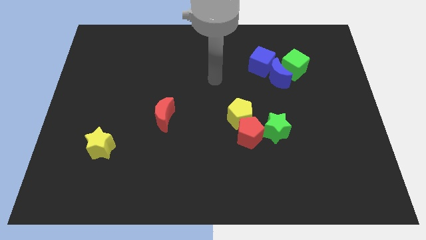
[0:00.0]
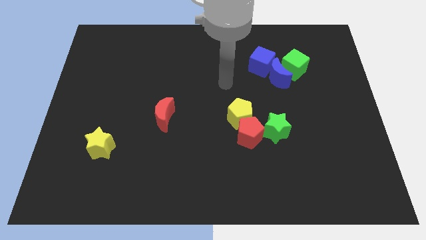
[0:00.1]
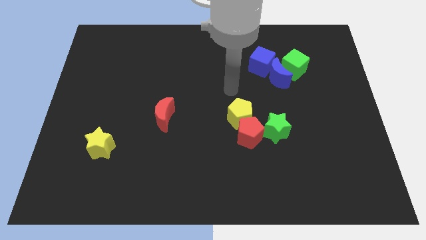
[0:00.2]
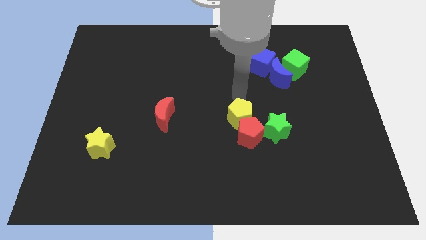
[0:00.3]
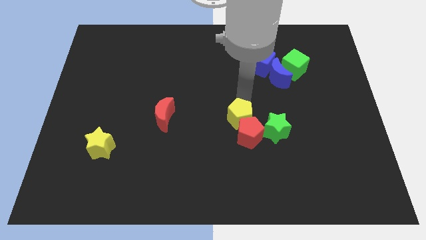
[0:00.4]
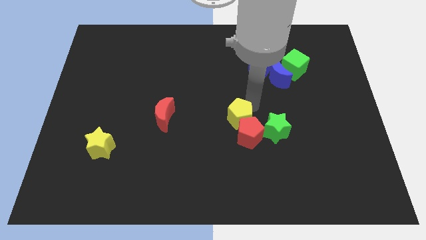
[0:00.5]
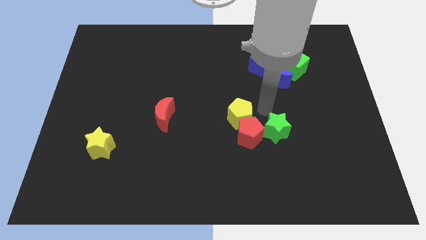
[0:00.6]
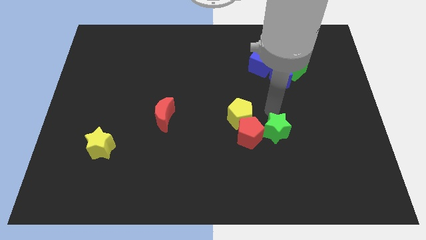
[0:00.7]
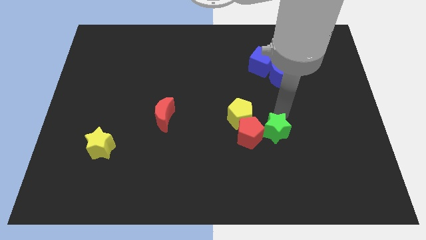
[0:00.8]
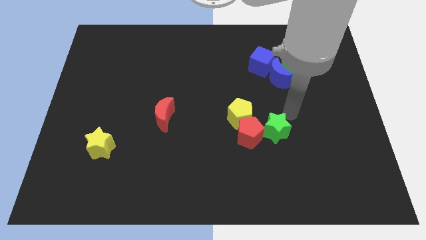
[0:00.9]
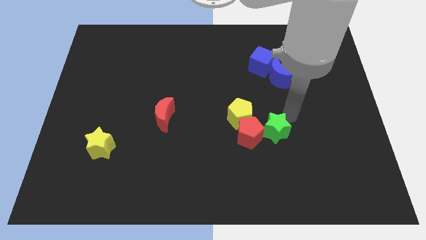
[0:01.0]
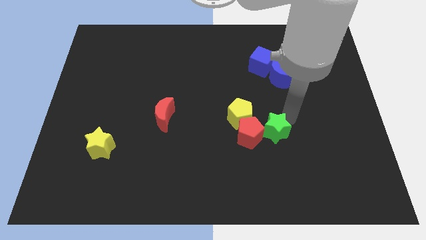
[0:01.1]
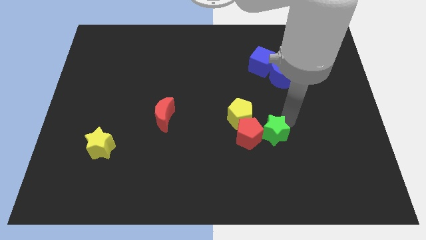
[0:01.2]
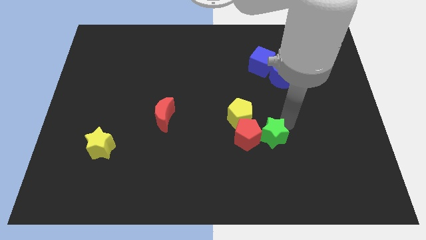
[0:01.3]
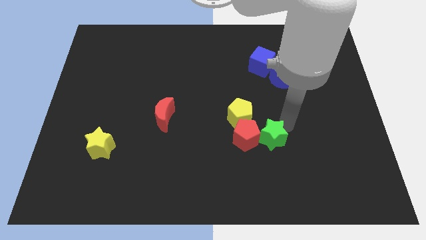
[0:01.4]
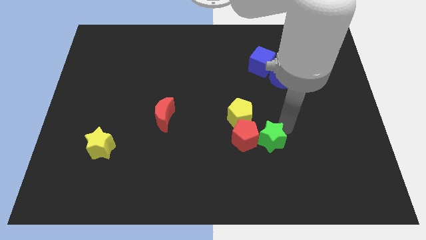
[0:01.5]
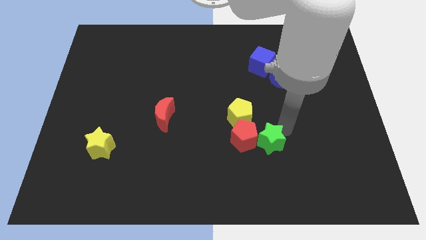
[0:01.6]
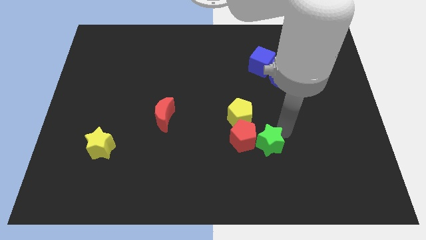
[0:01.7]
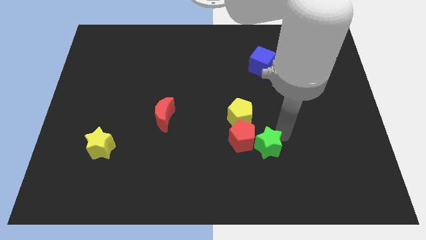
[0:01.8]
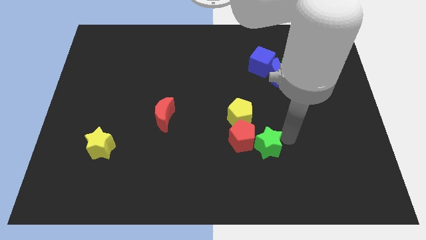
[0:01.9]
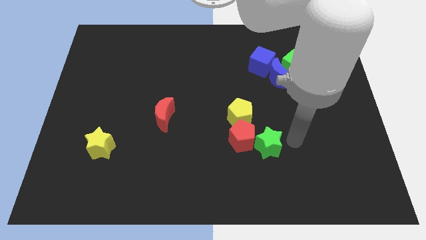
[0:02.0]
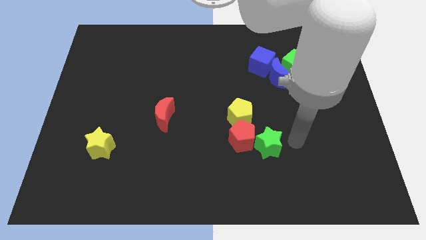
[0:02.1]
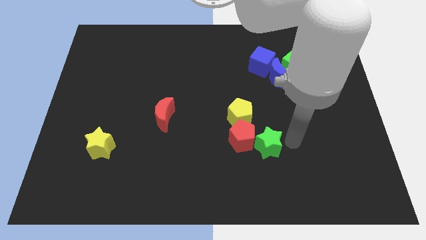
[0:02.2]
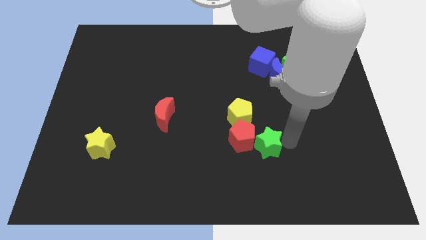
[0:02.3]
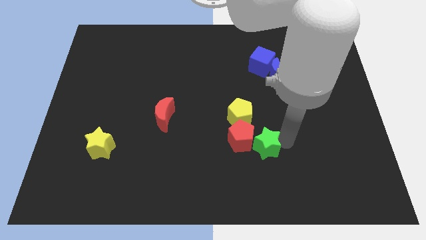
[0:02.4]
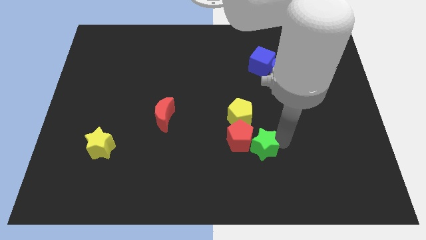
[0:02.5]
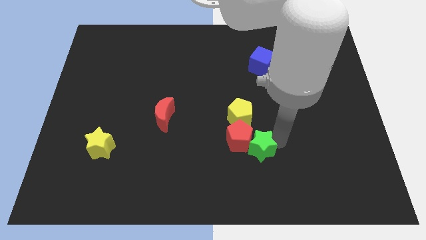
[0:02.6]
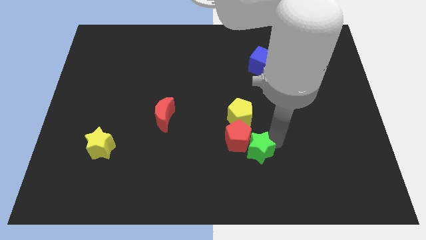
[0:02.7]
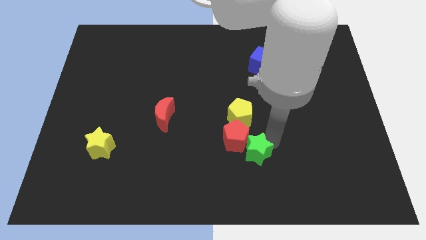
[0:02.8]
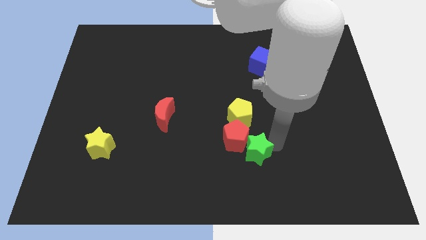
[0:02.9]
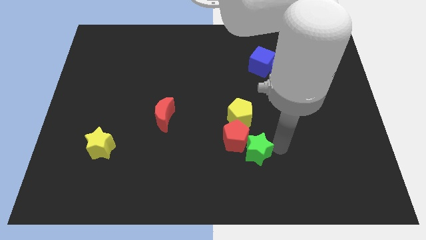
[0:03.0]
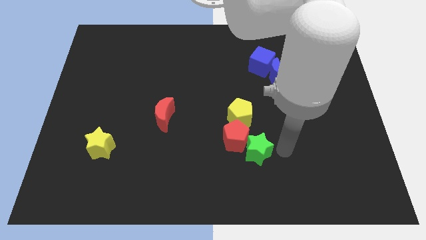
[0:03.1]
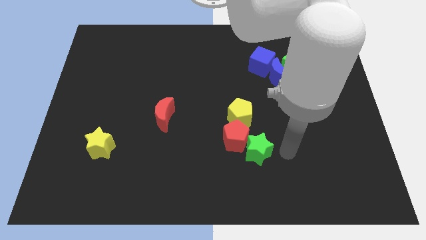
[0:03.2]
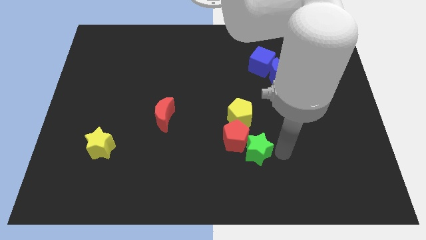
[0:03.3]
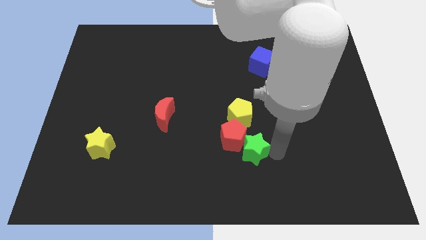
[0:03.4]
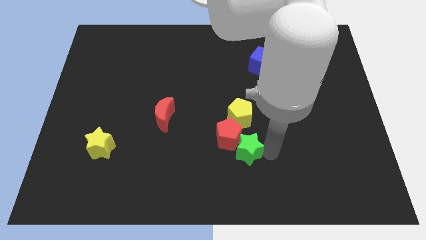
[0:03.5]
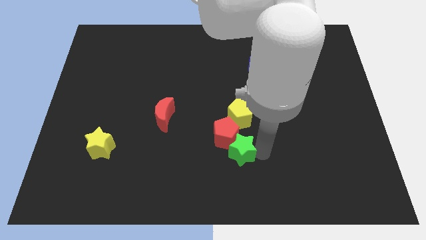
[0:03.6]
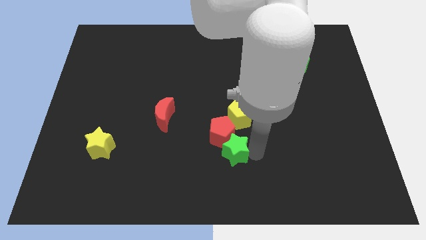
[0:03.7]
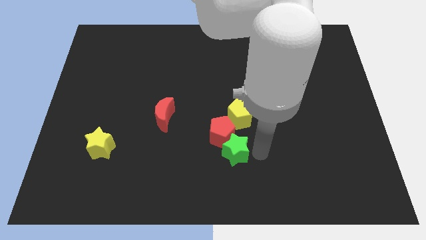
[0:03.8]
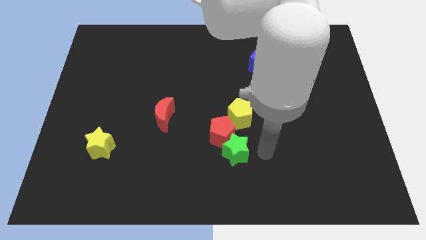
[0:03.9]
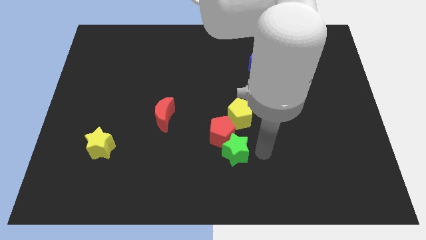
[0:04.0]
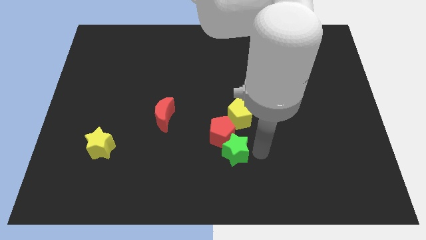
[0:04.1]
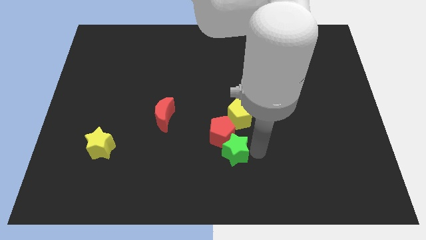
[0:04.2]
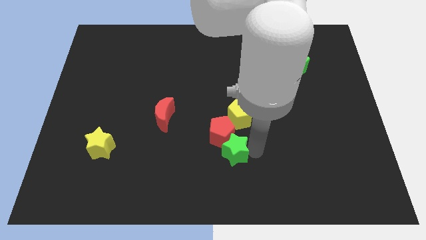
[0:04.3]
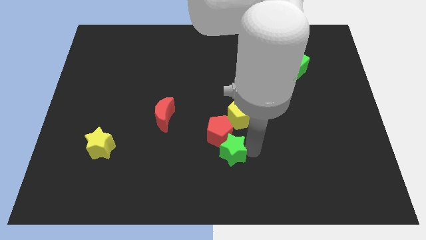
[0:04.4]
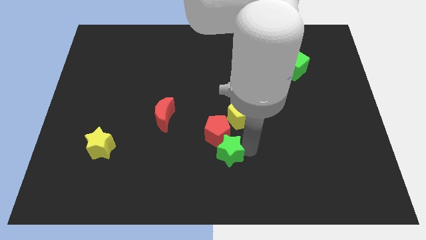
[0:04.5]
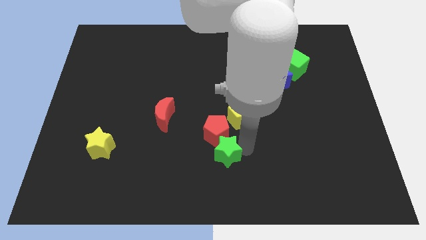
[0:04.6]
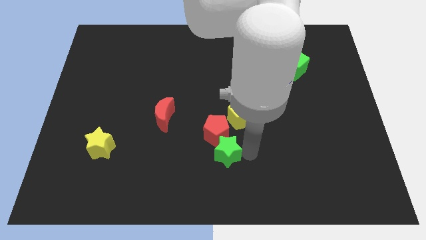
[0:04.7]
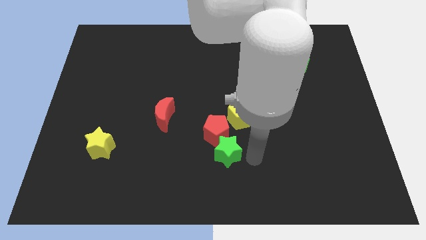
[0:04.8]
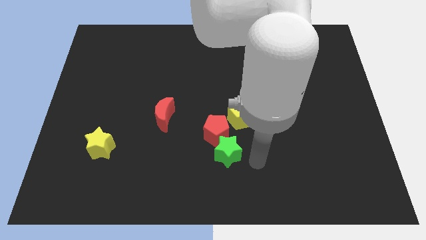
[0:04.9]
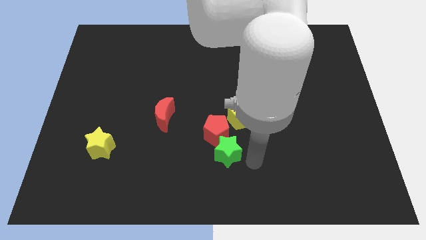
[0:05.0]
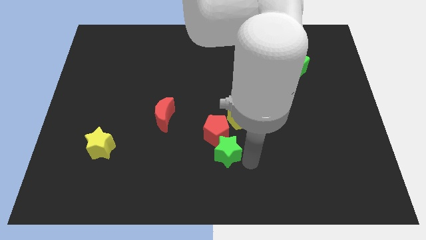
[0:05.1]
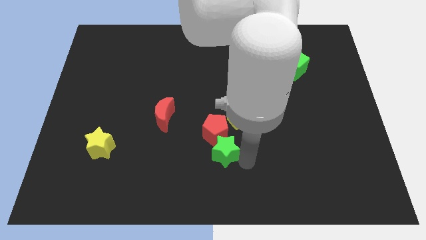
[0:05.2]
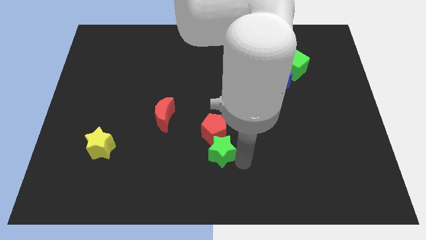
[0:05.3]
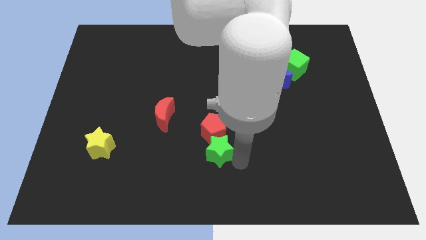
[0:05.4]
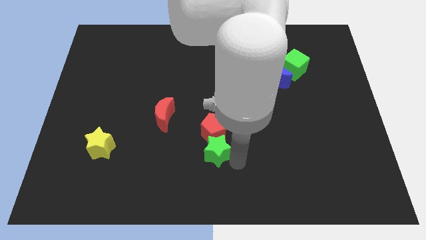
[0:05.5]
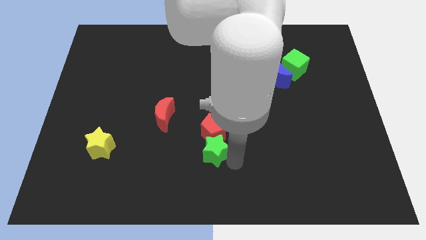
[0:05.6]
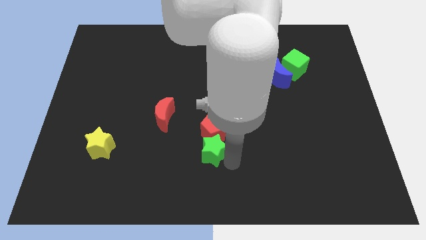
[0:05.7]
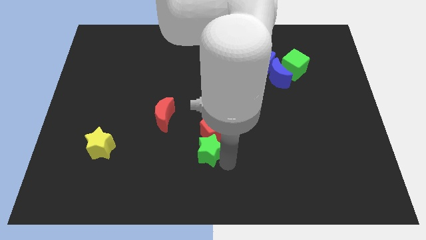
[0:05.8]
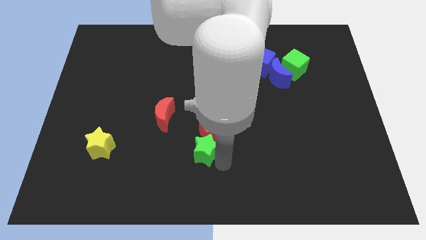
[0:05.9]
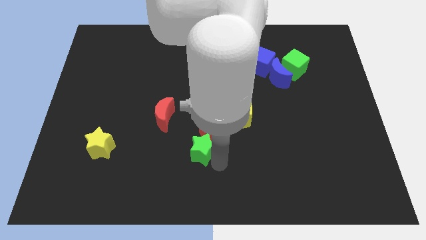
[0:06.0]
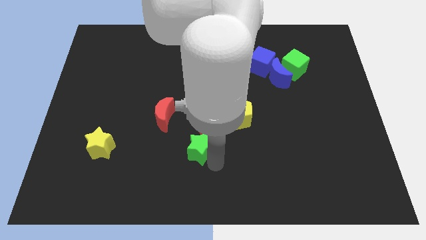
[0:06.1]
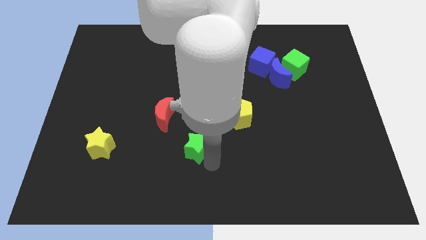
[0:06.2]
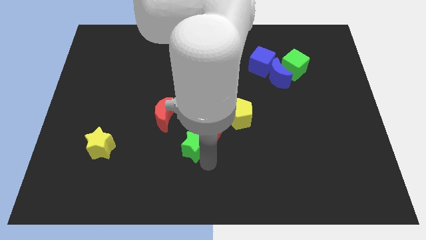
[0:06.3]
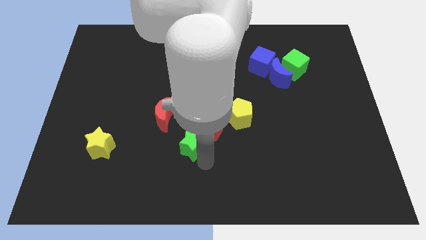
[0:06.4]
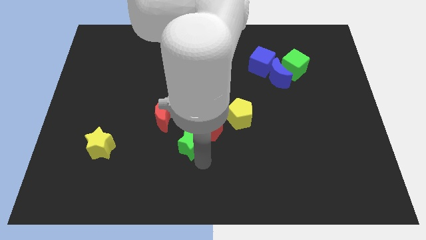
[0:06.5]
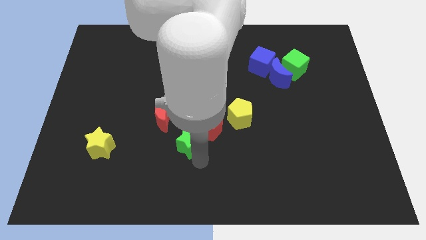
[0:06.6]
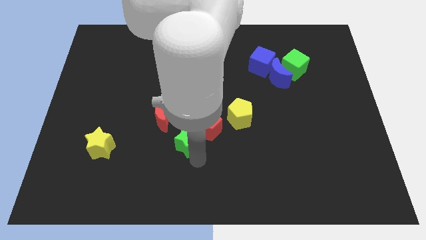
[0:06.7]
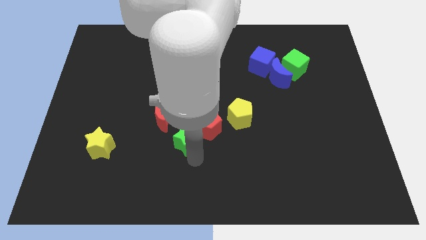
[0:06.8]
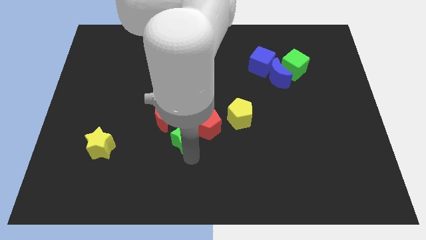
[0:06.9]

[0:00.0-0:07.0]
push the green star to the left

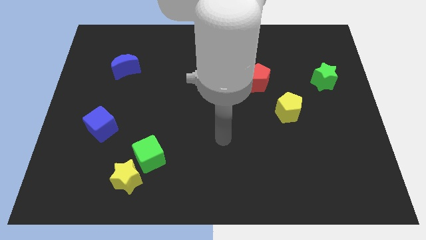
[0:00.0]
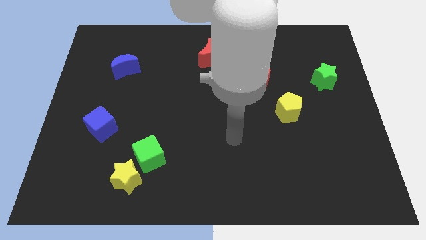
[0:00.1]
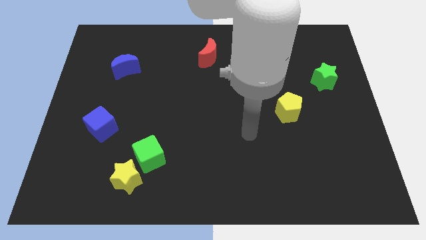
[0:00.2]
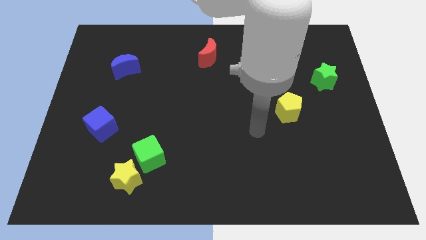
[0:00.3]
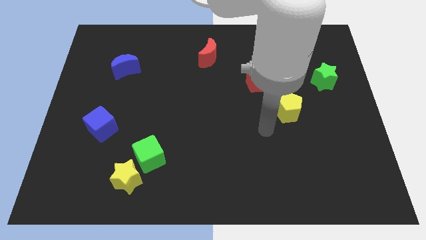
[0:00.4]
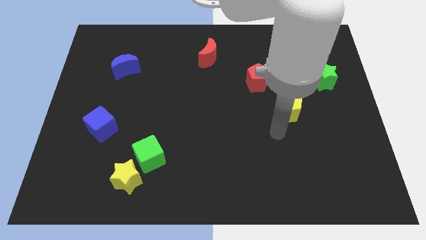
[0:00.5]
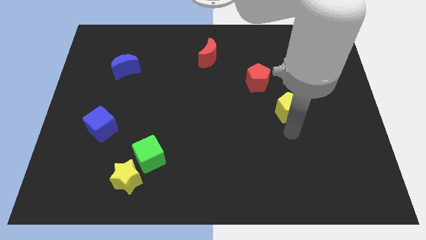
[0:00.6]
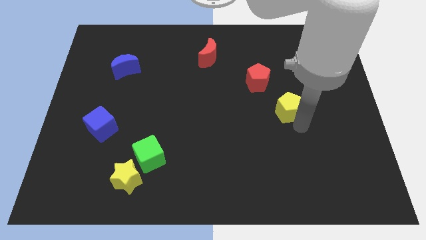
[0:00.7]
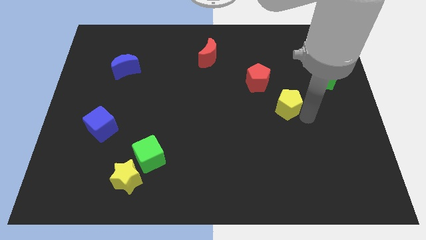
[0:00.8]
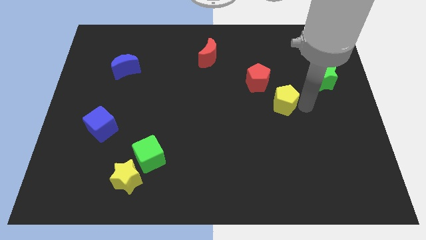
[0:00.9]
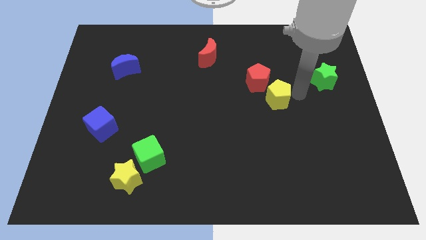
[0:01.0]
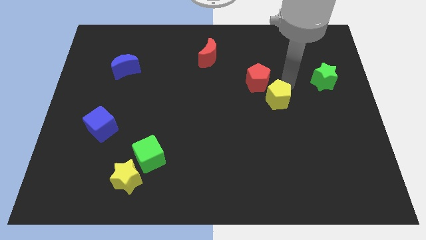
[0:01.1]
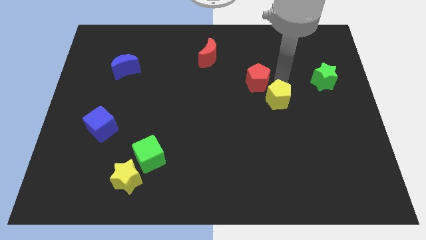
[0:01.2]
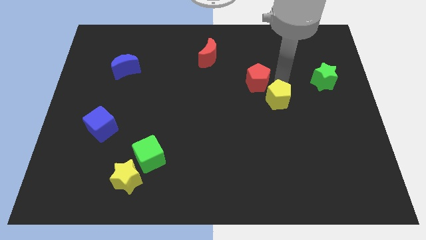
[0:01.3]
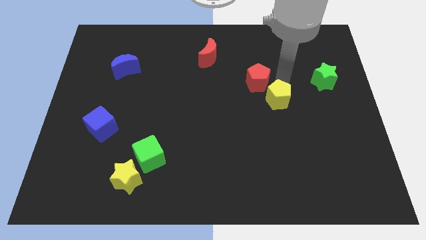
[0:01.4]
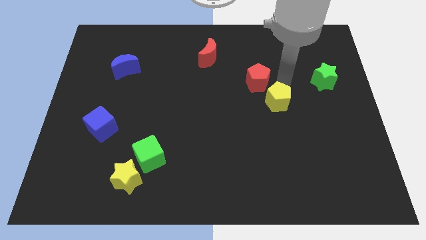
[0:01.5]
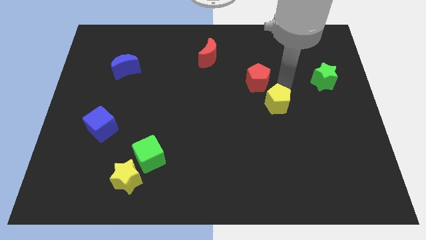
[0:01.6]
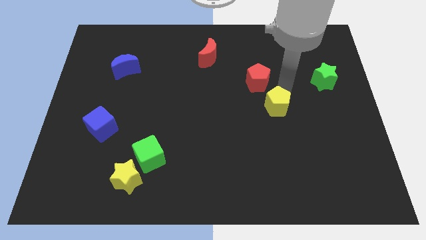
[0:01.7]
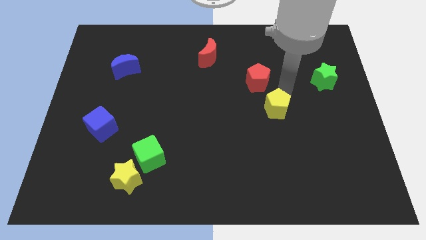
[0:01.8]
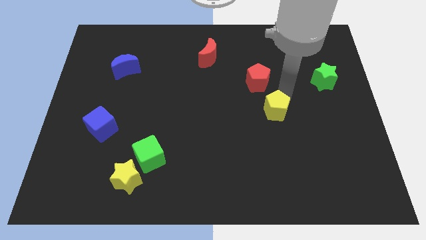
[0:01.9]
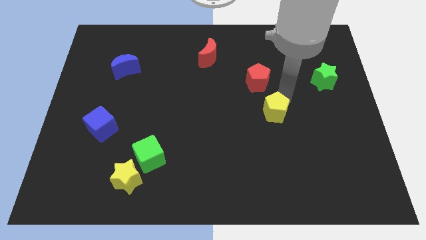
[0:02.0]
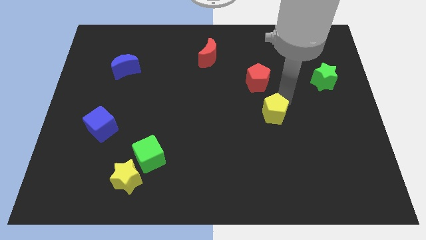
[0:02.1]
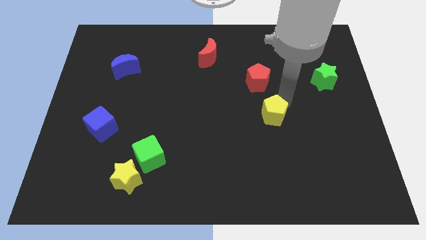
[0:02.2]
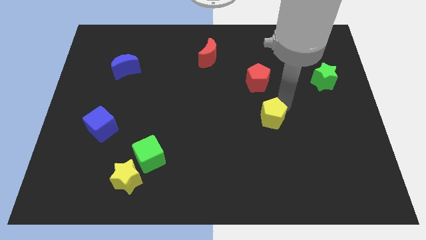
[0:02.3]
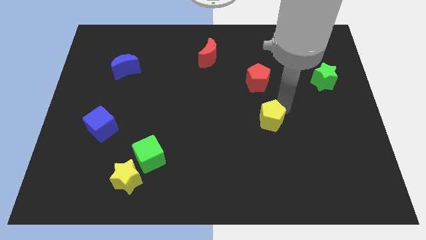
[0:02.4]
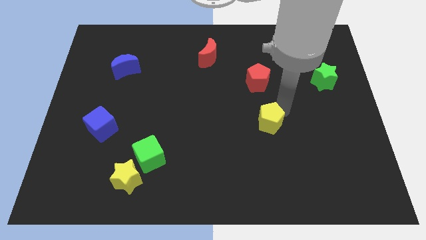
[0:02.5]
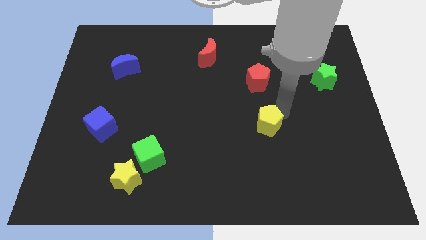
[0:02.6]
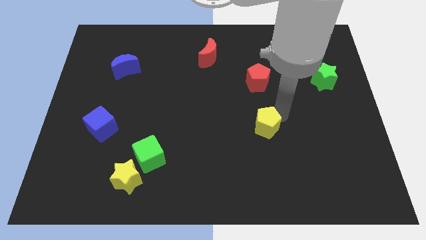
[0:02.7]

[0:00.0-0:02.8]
move the yellow pentagon downwards and to the left diagonally somewhat
